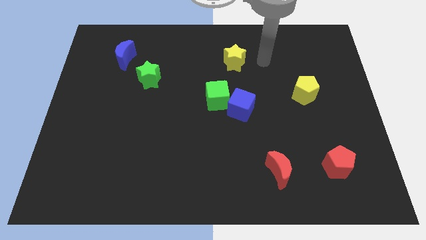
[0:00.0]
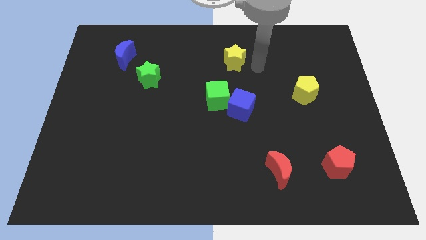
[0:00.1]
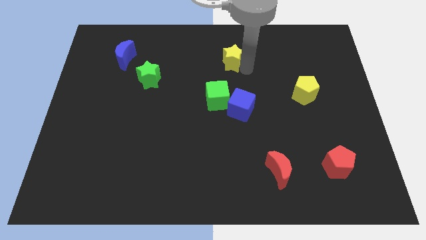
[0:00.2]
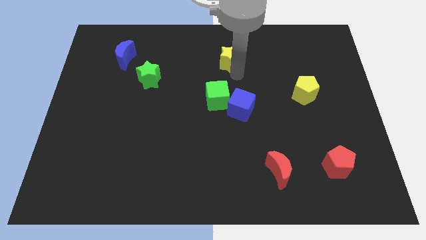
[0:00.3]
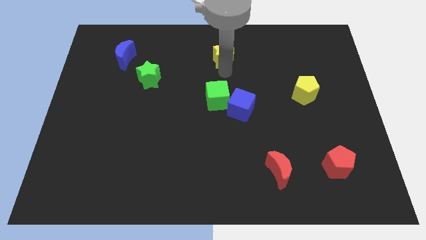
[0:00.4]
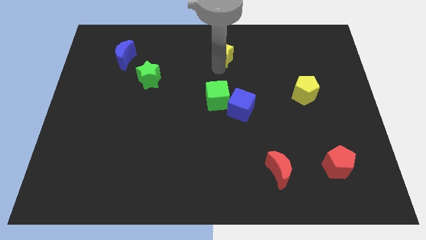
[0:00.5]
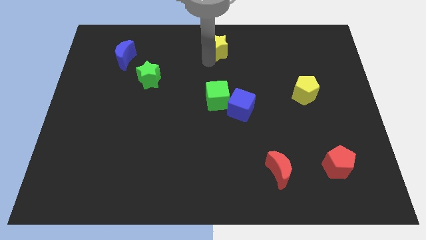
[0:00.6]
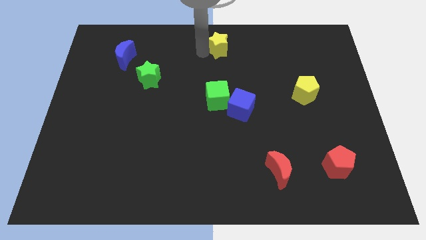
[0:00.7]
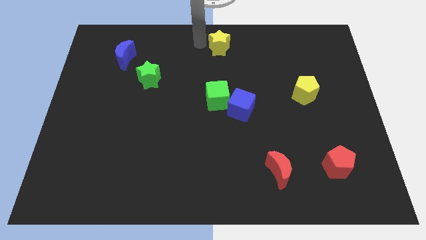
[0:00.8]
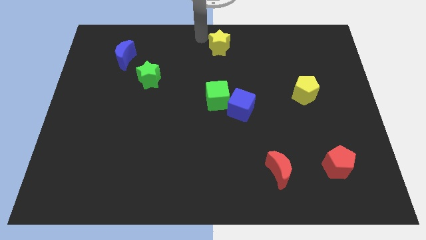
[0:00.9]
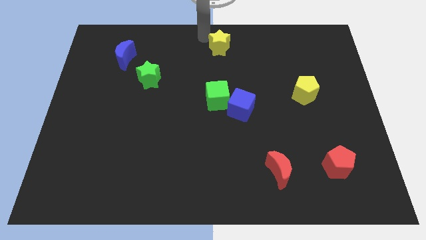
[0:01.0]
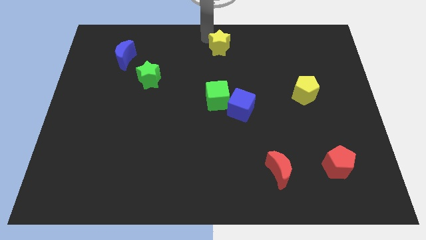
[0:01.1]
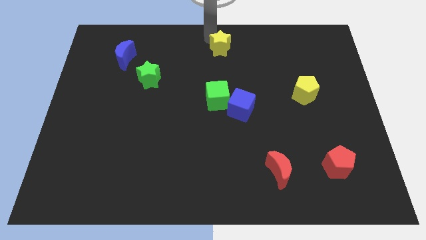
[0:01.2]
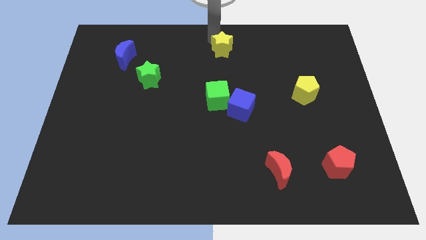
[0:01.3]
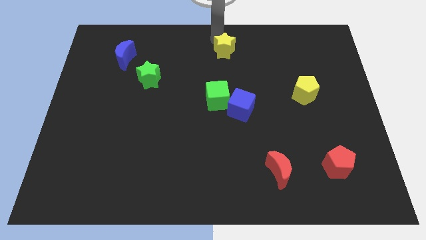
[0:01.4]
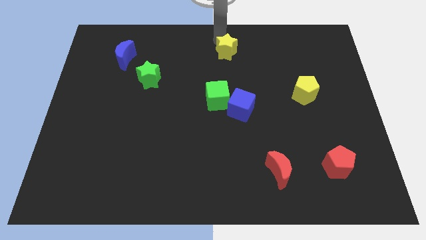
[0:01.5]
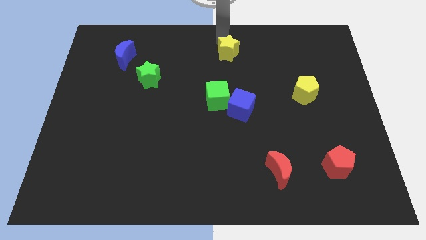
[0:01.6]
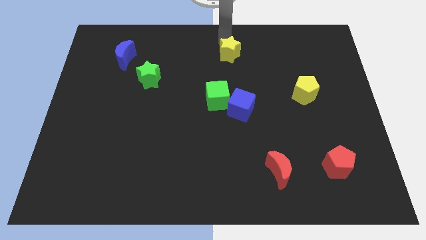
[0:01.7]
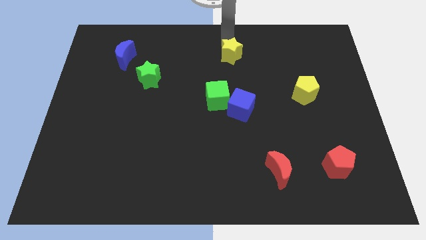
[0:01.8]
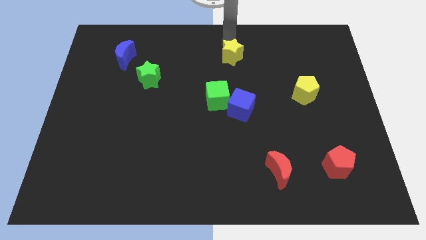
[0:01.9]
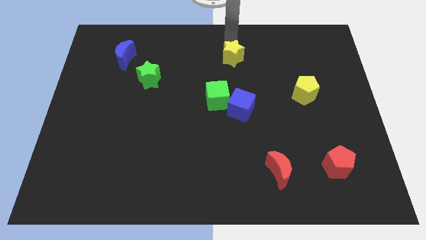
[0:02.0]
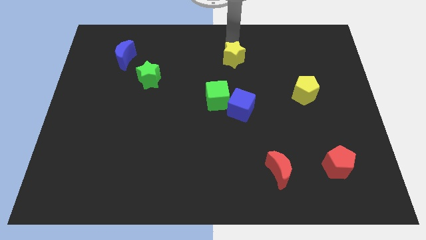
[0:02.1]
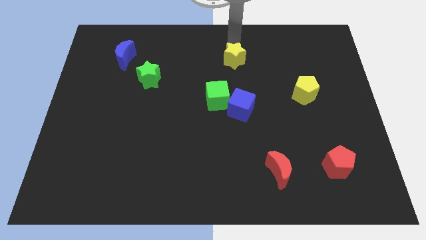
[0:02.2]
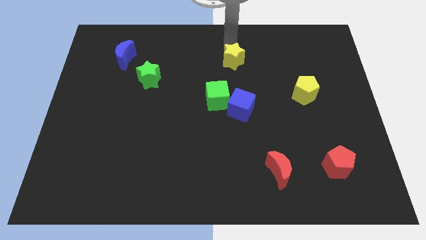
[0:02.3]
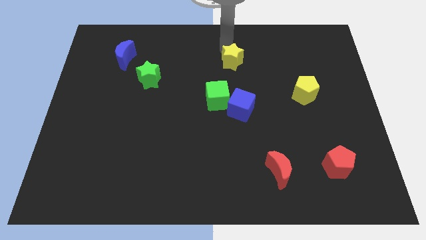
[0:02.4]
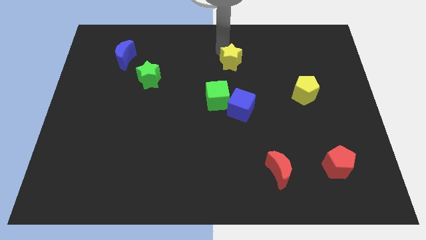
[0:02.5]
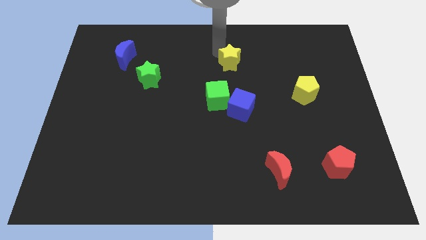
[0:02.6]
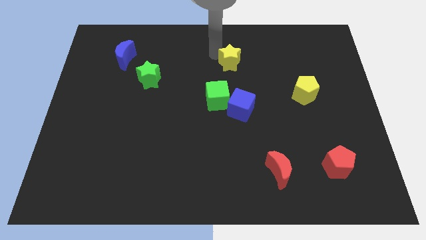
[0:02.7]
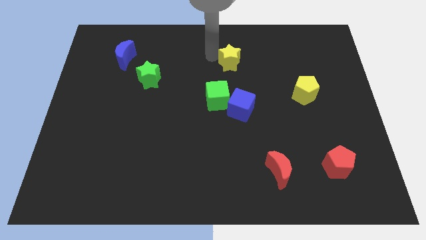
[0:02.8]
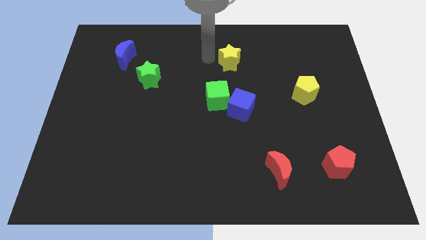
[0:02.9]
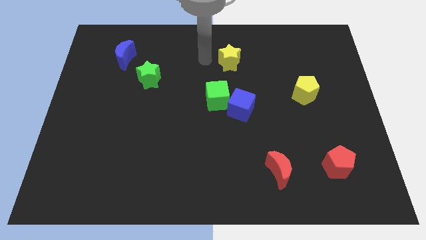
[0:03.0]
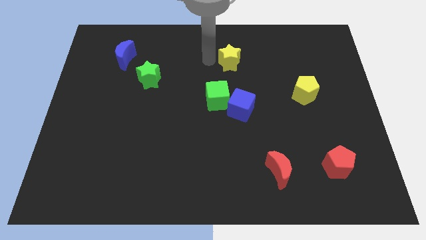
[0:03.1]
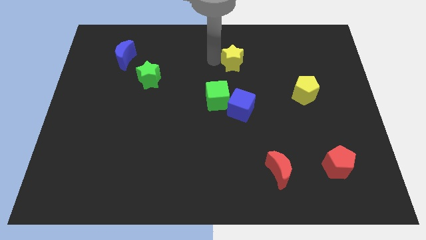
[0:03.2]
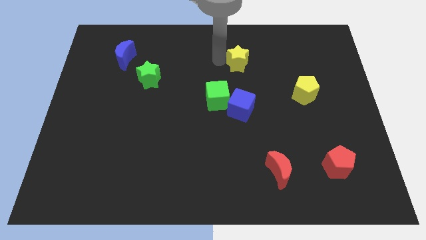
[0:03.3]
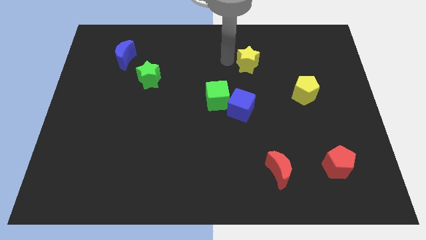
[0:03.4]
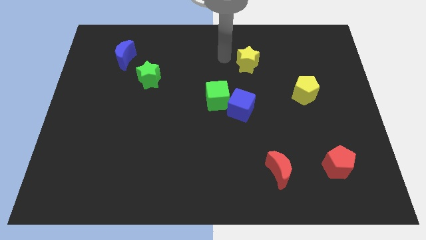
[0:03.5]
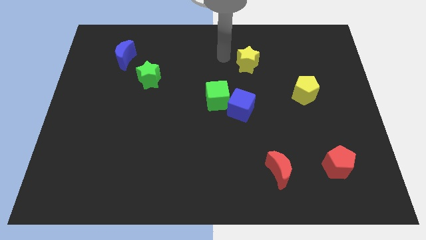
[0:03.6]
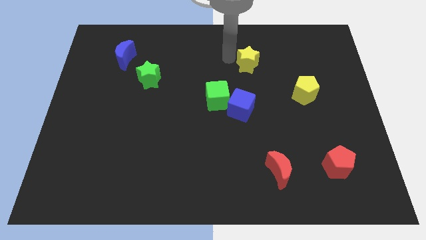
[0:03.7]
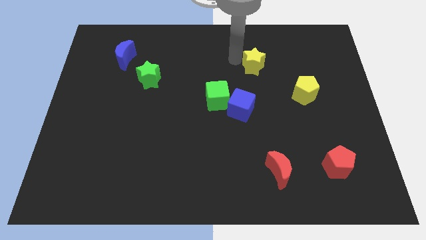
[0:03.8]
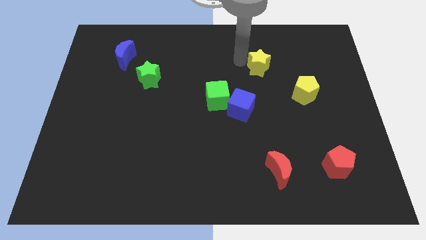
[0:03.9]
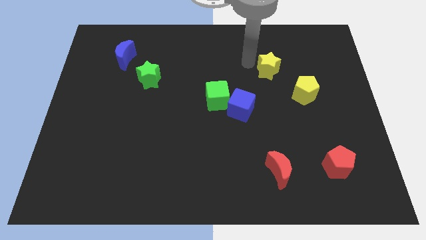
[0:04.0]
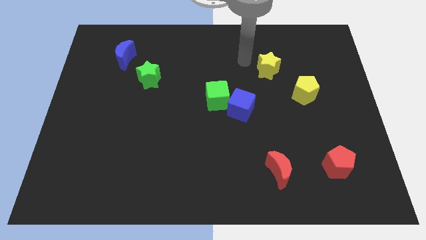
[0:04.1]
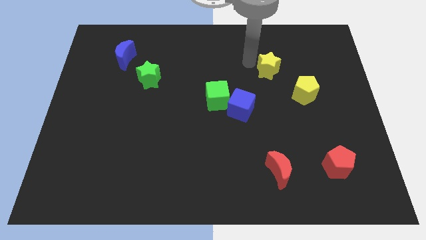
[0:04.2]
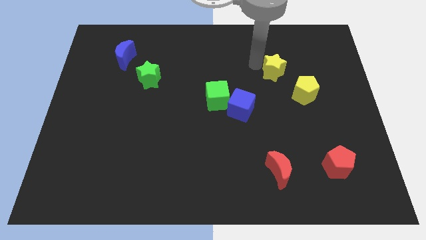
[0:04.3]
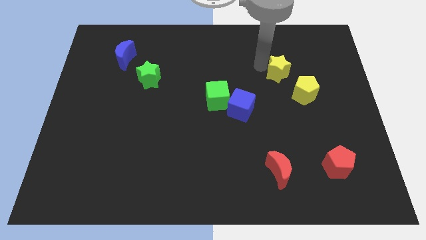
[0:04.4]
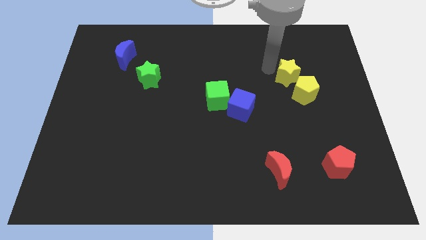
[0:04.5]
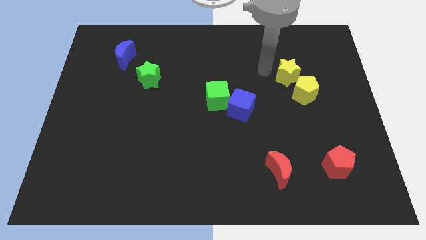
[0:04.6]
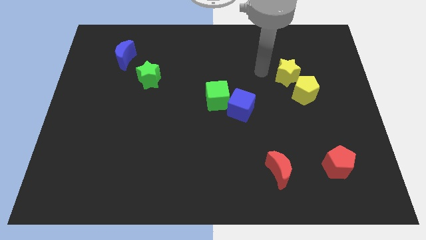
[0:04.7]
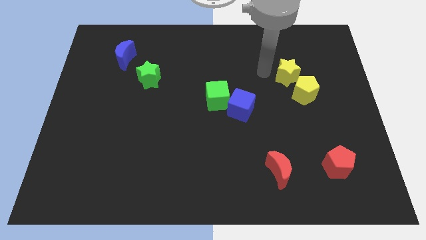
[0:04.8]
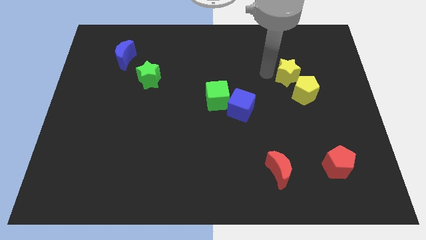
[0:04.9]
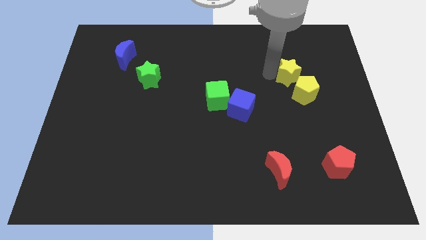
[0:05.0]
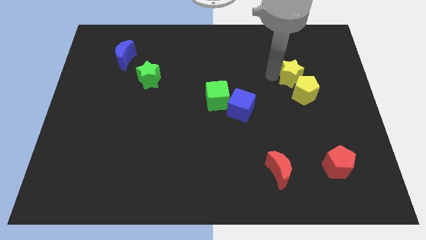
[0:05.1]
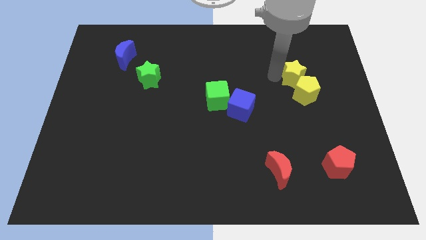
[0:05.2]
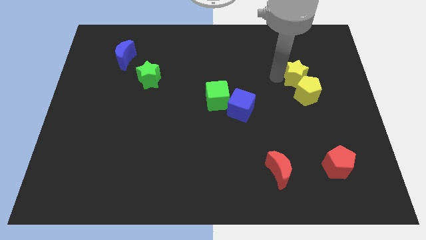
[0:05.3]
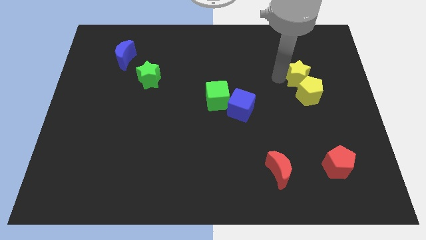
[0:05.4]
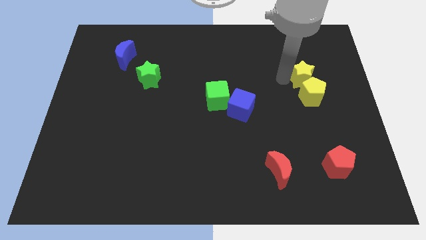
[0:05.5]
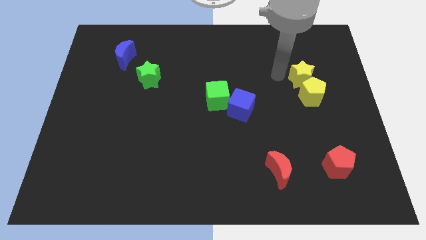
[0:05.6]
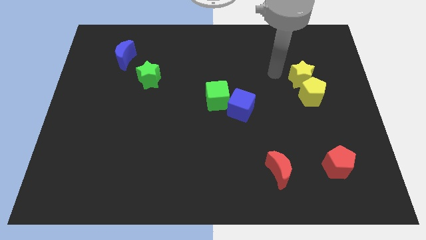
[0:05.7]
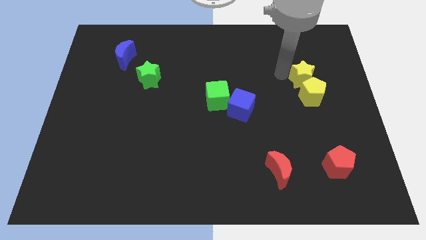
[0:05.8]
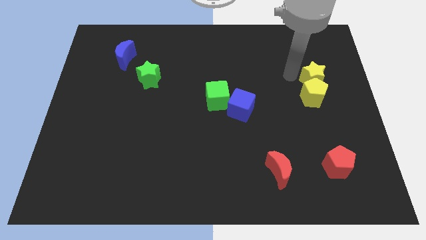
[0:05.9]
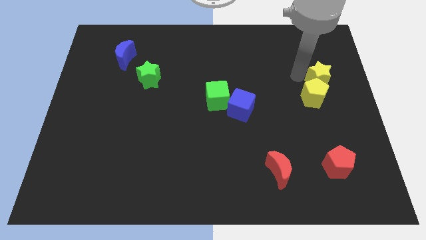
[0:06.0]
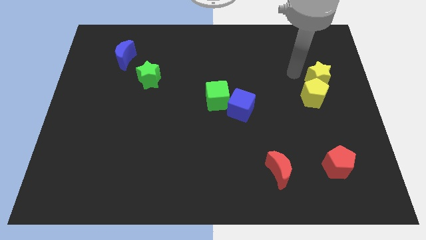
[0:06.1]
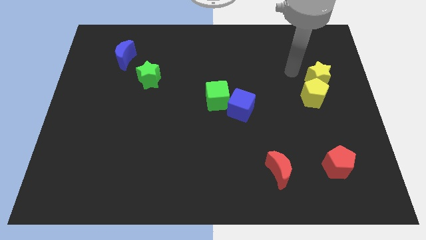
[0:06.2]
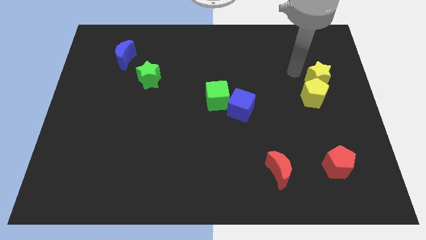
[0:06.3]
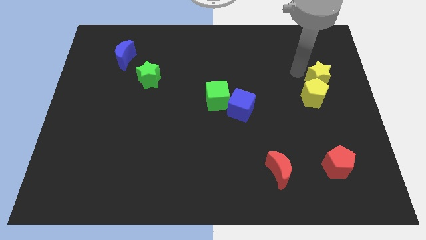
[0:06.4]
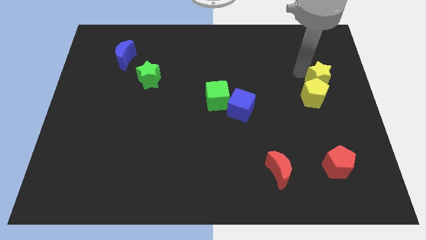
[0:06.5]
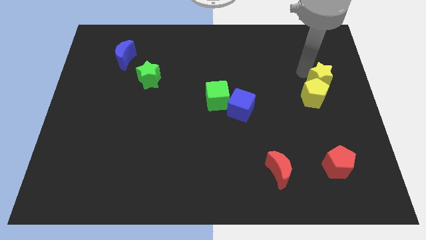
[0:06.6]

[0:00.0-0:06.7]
push the yellow star to the right side

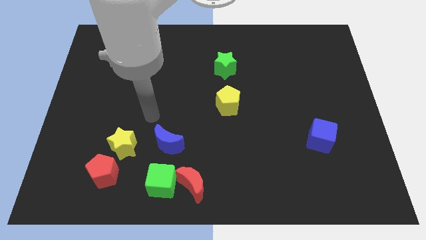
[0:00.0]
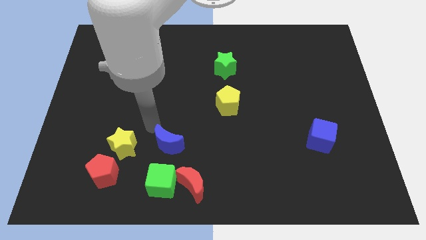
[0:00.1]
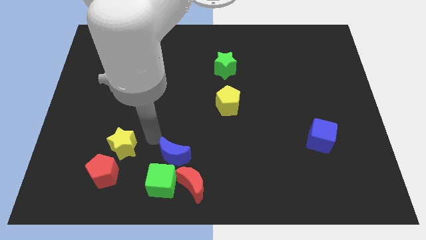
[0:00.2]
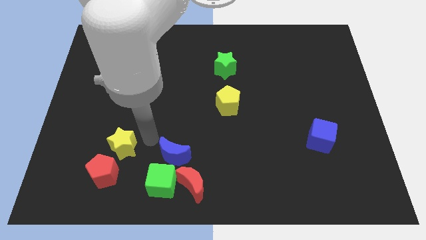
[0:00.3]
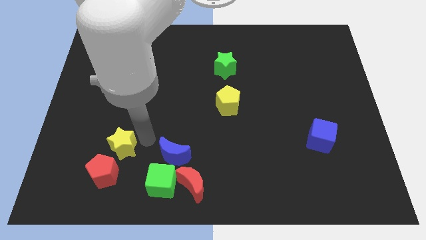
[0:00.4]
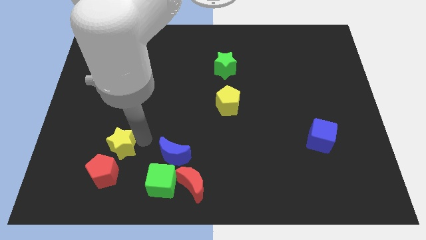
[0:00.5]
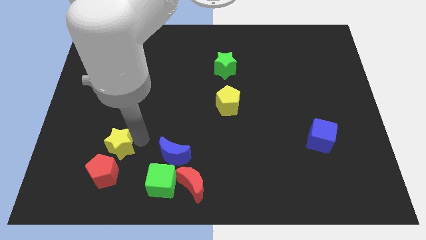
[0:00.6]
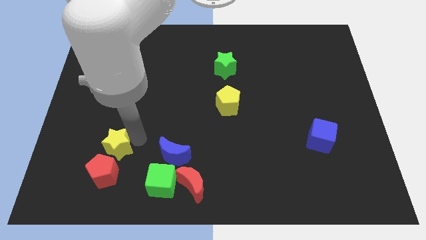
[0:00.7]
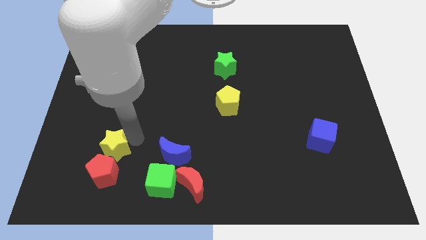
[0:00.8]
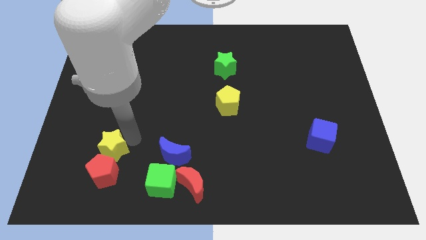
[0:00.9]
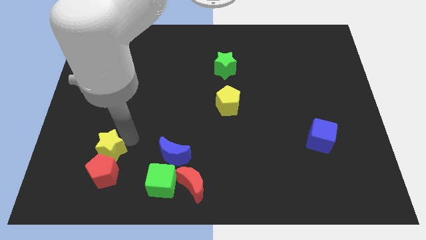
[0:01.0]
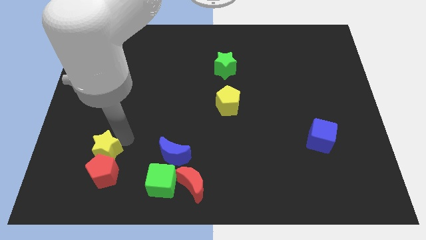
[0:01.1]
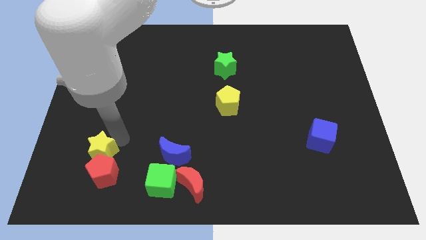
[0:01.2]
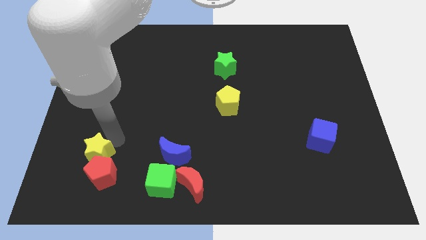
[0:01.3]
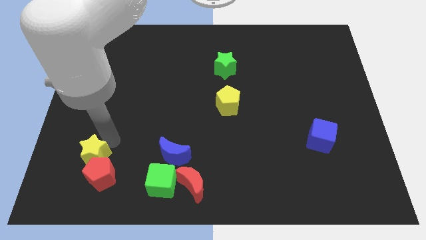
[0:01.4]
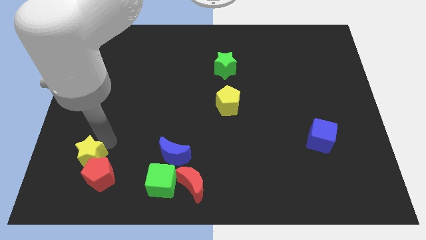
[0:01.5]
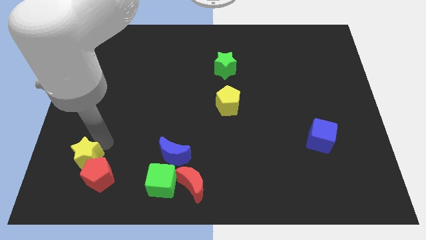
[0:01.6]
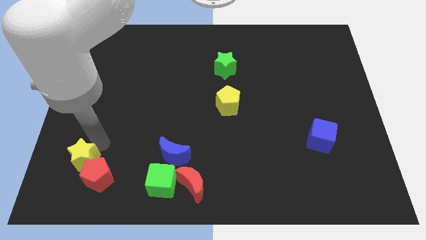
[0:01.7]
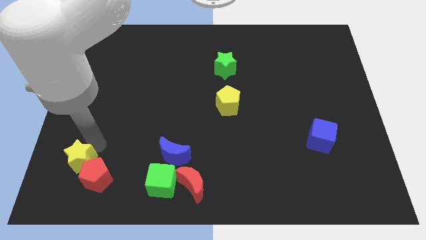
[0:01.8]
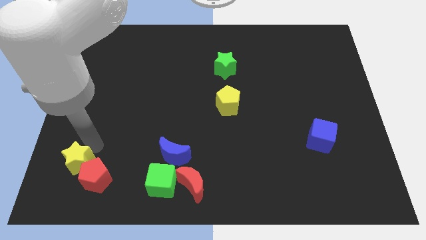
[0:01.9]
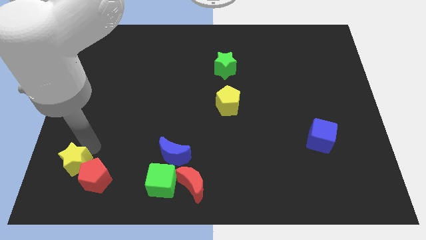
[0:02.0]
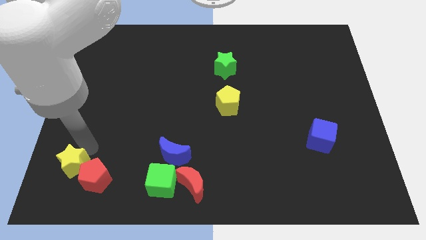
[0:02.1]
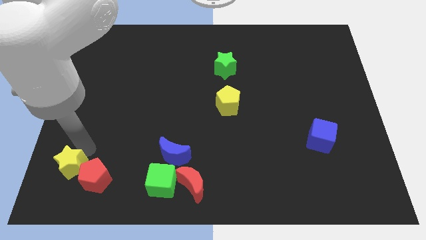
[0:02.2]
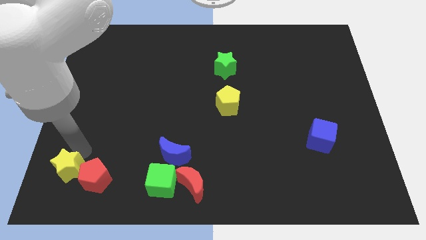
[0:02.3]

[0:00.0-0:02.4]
push the yellow star to the lower left corner
